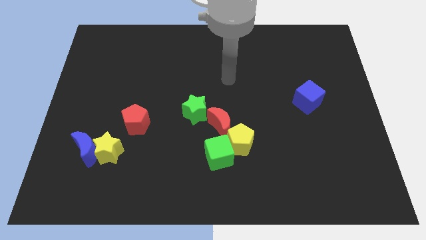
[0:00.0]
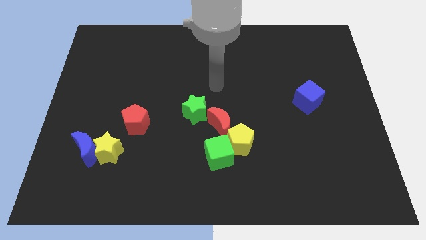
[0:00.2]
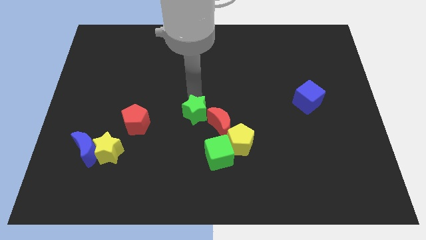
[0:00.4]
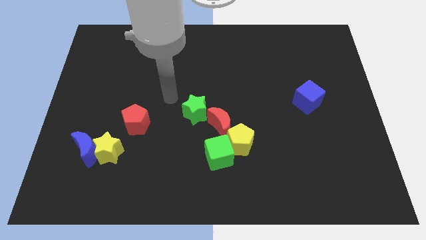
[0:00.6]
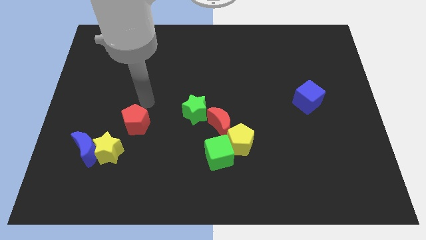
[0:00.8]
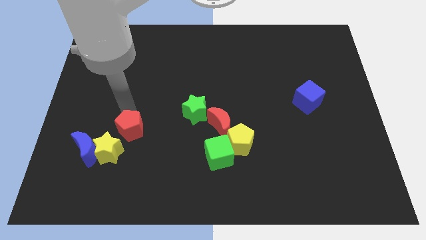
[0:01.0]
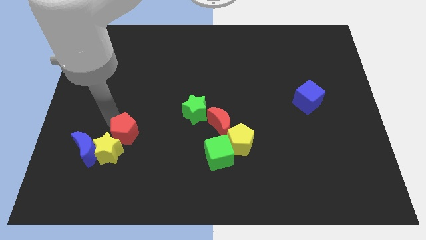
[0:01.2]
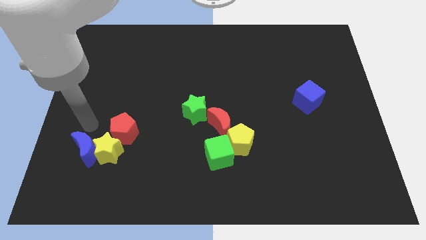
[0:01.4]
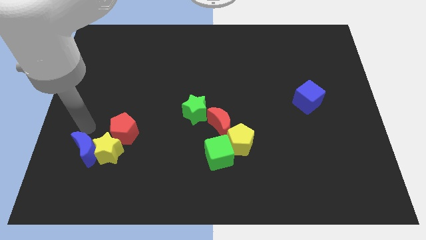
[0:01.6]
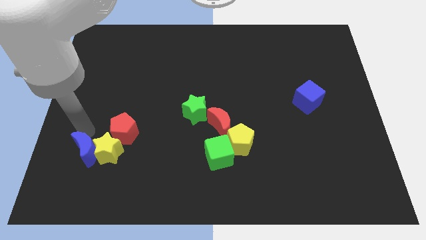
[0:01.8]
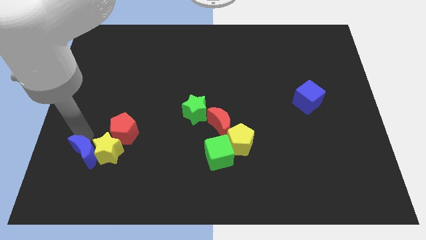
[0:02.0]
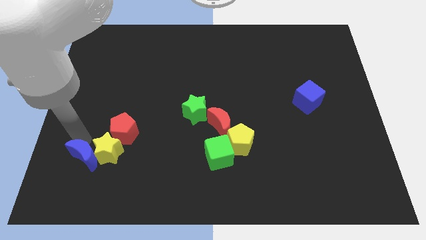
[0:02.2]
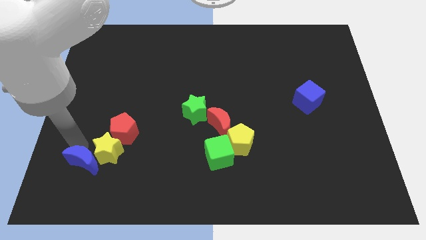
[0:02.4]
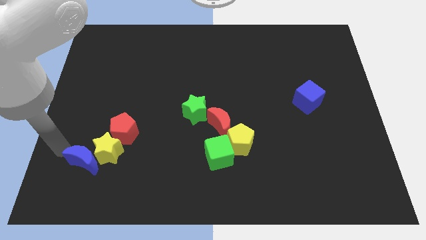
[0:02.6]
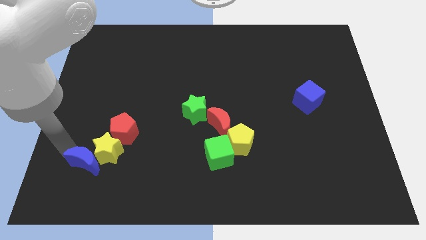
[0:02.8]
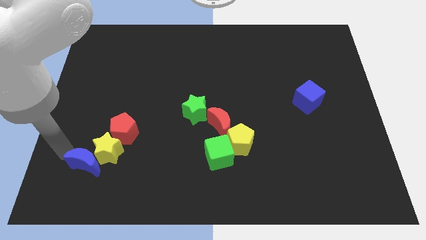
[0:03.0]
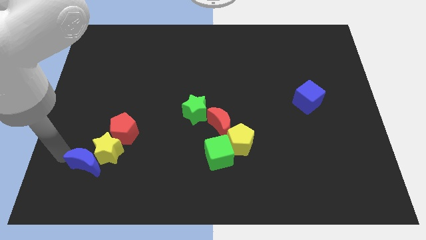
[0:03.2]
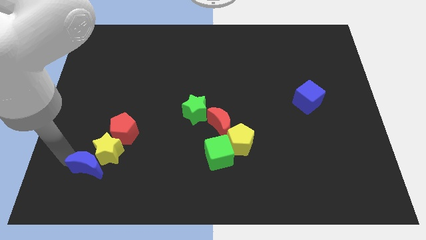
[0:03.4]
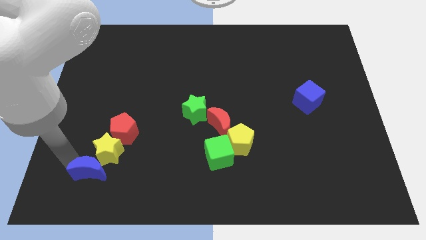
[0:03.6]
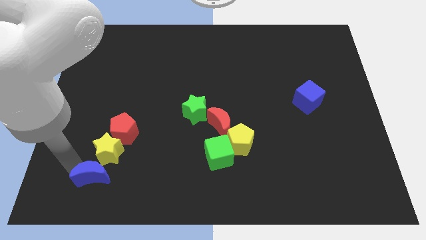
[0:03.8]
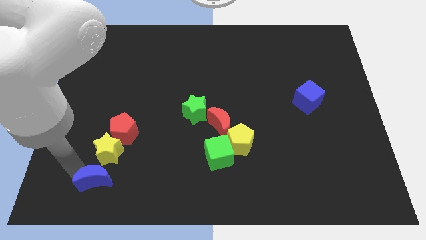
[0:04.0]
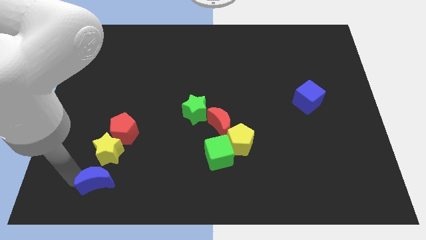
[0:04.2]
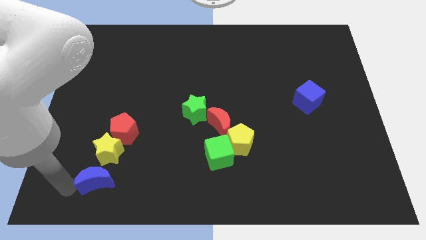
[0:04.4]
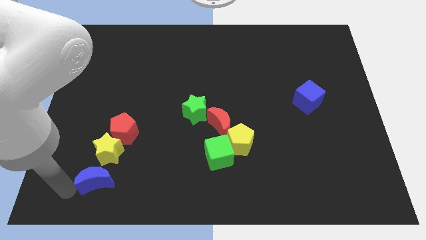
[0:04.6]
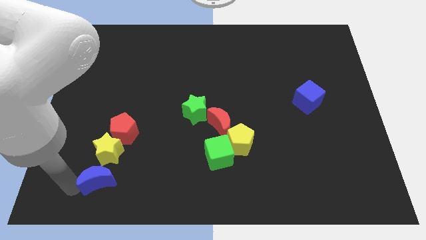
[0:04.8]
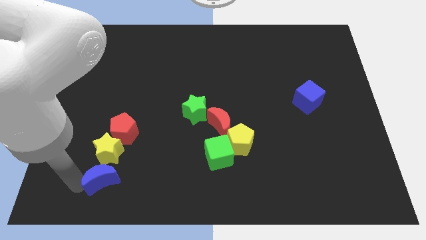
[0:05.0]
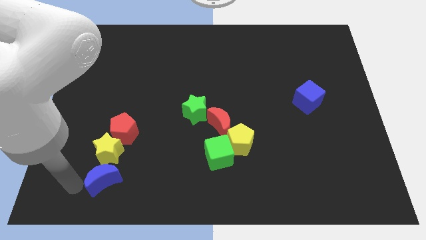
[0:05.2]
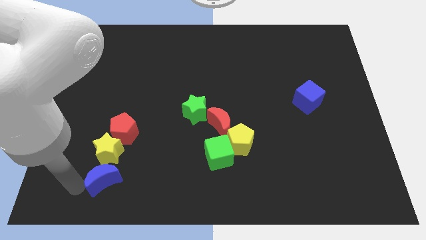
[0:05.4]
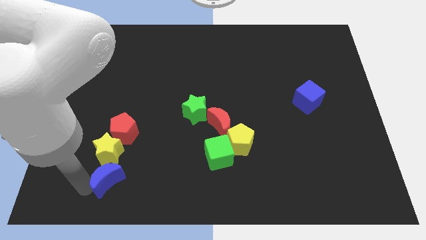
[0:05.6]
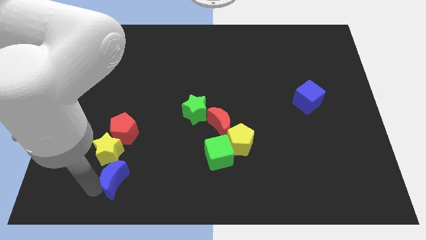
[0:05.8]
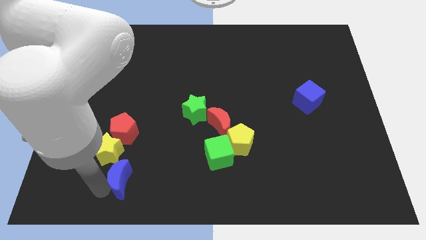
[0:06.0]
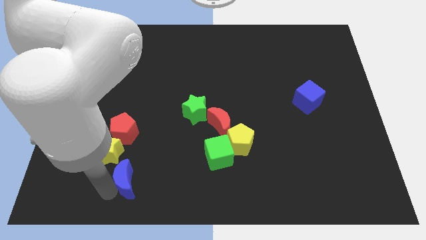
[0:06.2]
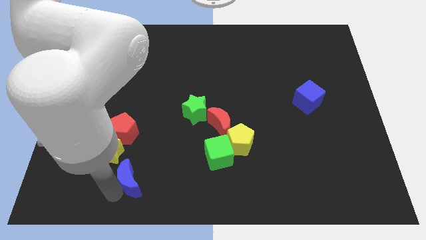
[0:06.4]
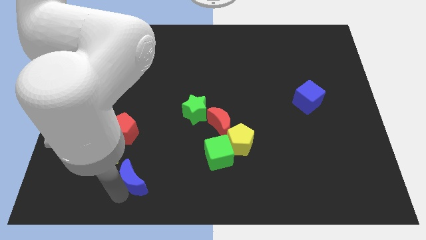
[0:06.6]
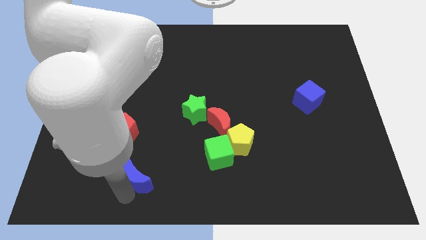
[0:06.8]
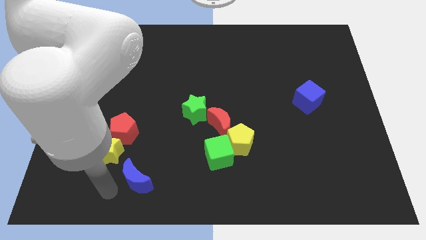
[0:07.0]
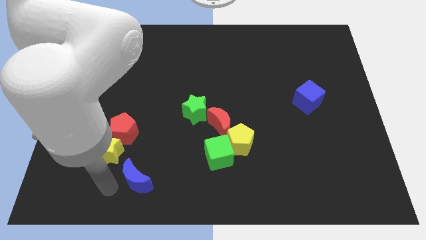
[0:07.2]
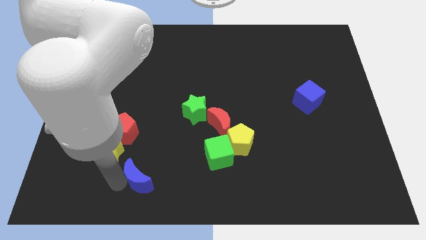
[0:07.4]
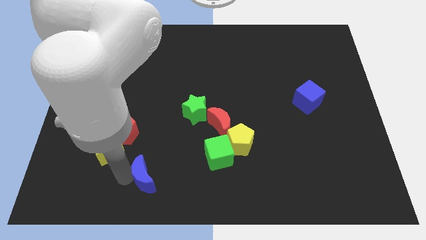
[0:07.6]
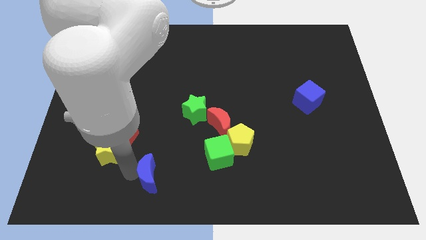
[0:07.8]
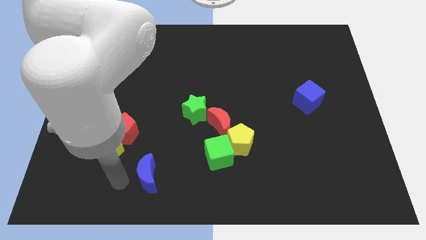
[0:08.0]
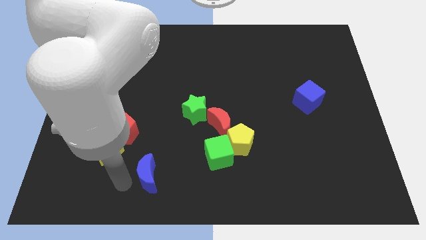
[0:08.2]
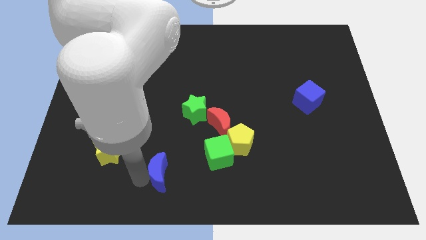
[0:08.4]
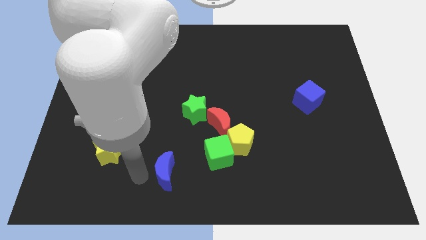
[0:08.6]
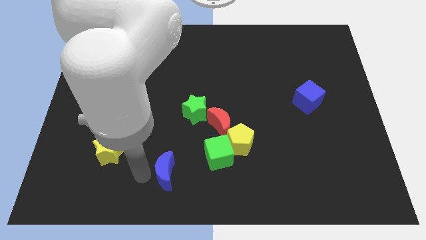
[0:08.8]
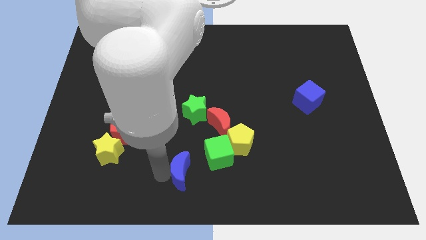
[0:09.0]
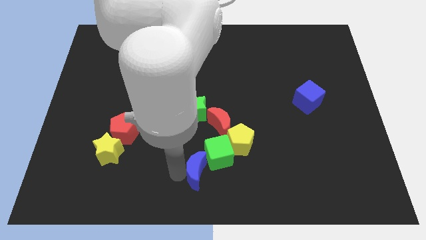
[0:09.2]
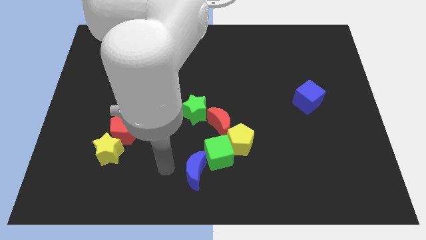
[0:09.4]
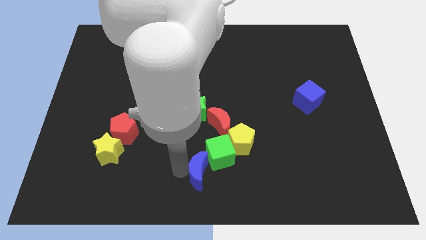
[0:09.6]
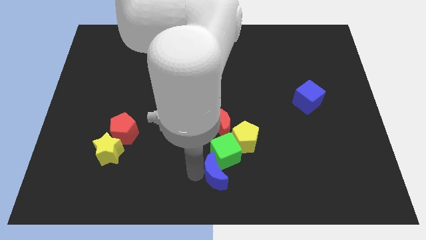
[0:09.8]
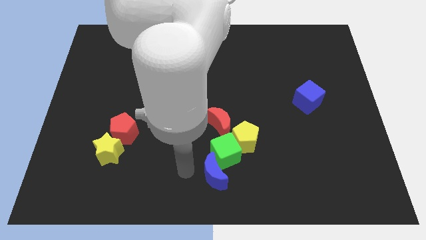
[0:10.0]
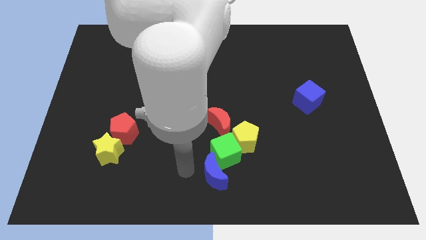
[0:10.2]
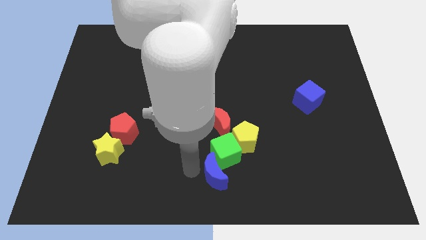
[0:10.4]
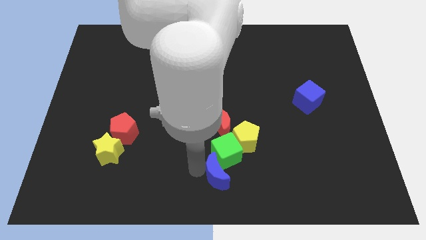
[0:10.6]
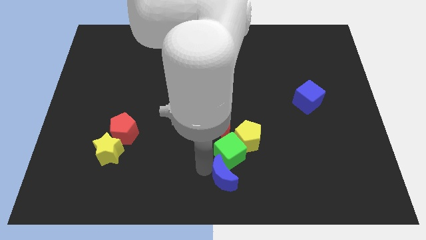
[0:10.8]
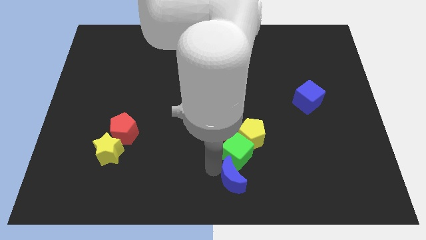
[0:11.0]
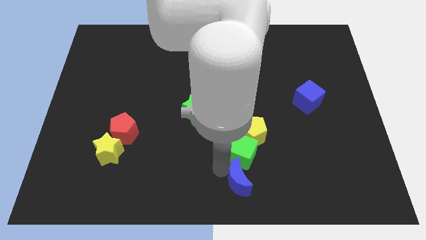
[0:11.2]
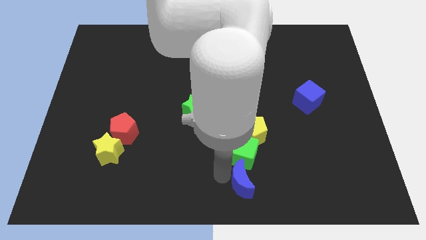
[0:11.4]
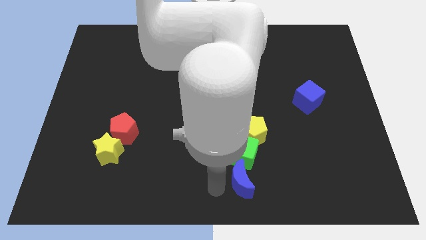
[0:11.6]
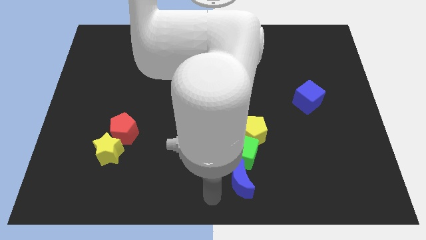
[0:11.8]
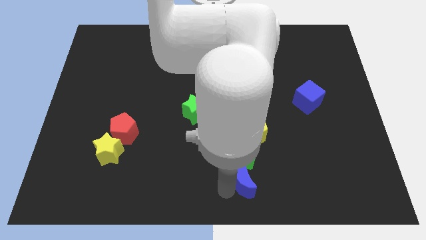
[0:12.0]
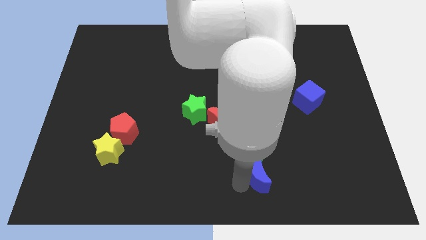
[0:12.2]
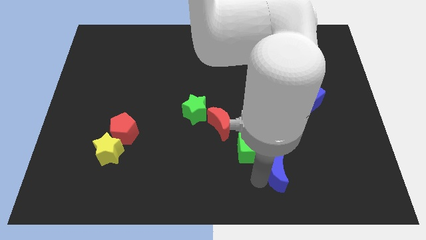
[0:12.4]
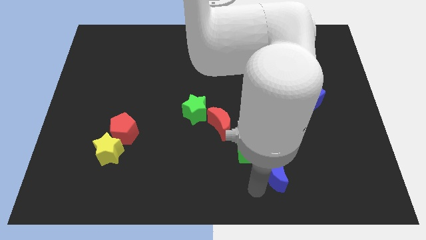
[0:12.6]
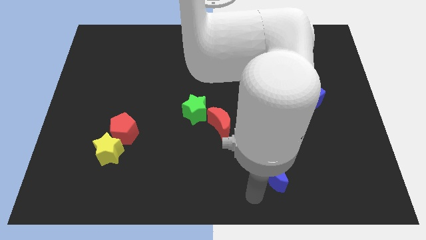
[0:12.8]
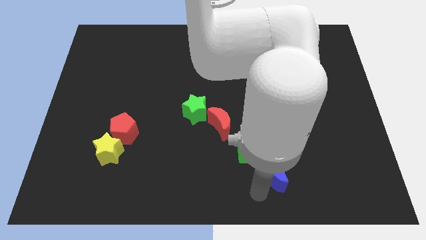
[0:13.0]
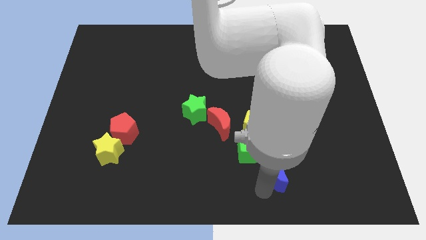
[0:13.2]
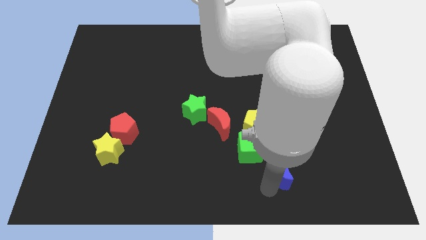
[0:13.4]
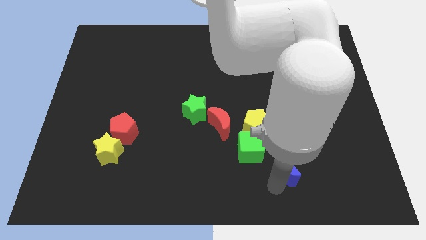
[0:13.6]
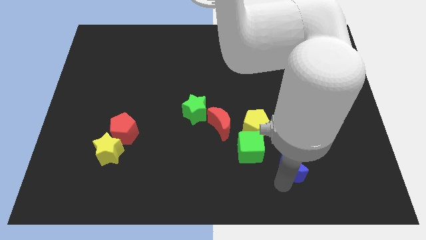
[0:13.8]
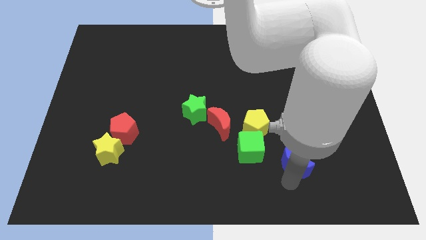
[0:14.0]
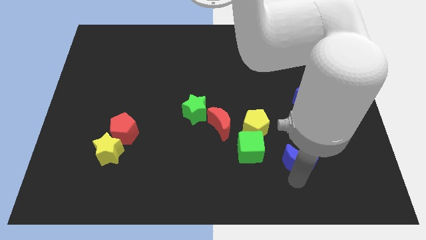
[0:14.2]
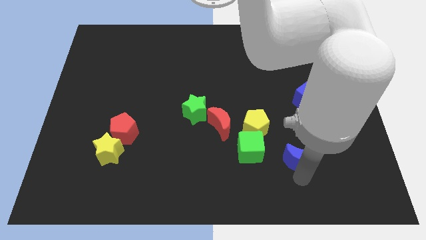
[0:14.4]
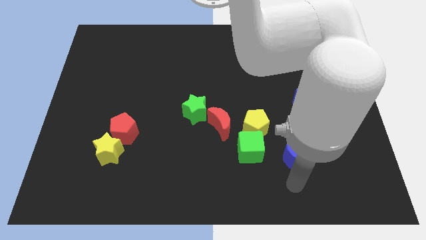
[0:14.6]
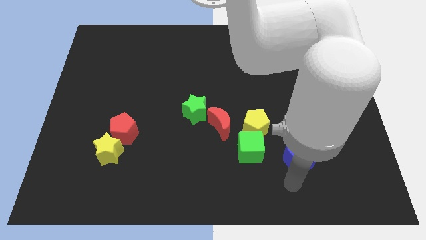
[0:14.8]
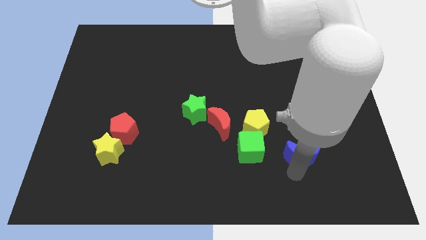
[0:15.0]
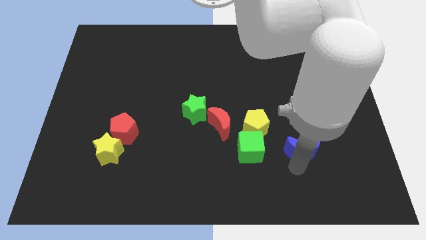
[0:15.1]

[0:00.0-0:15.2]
push the blue moon below the blue cube
